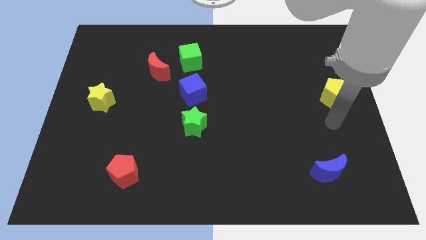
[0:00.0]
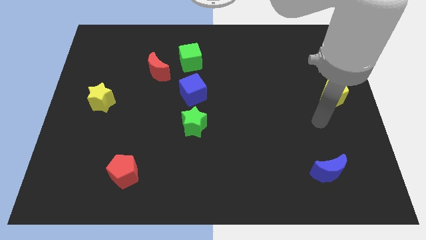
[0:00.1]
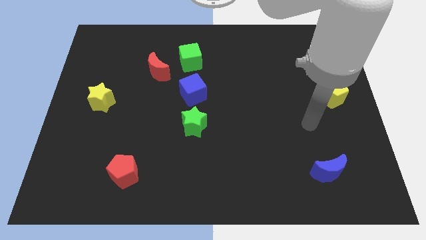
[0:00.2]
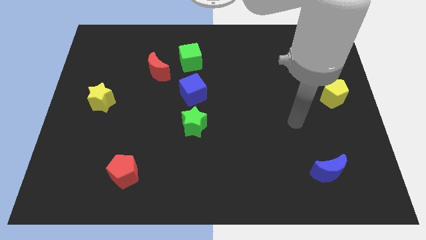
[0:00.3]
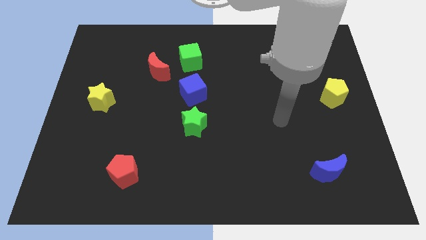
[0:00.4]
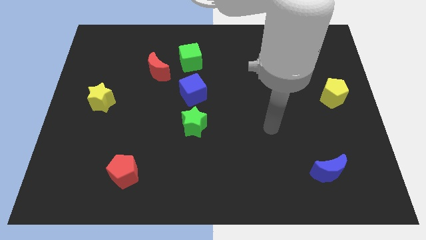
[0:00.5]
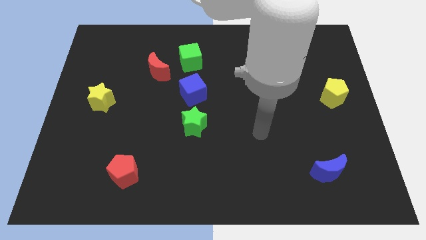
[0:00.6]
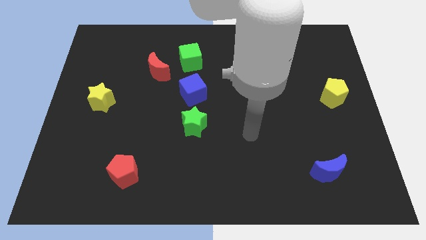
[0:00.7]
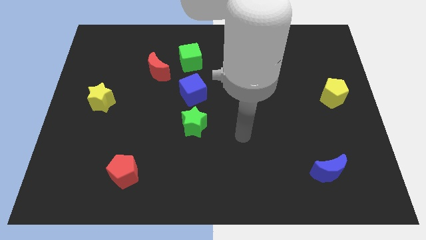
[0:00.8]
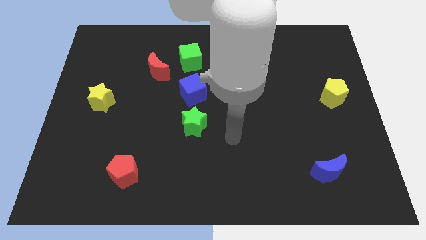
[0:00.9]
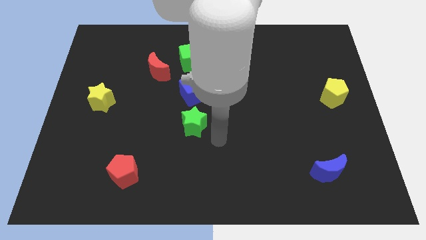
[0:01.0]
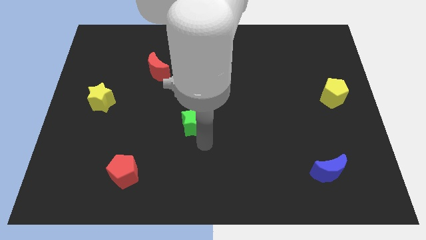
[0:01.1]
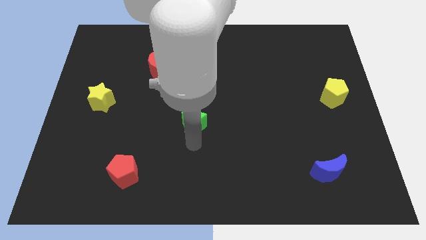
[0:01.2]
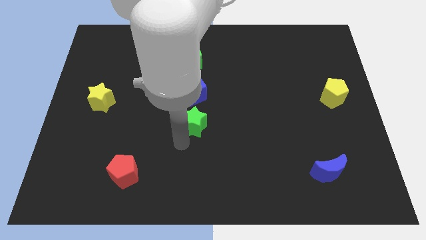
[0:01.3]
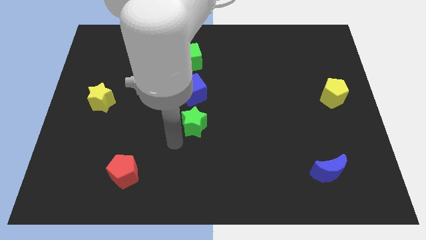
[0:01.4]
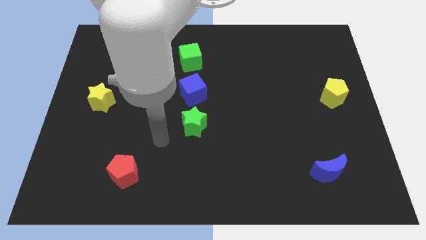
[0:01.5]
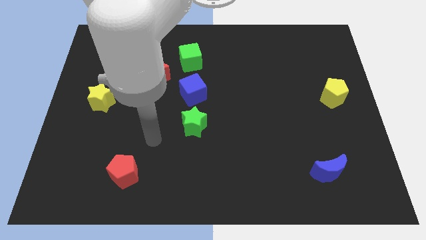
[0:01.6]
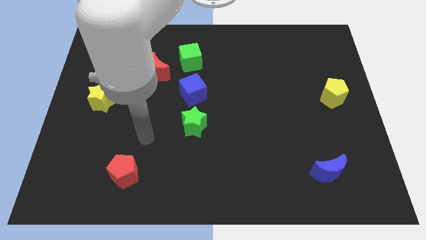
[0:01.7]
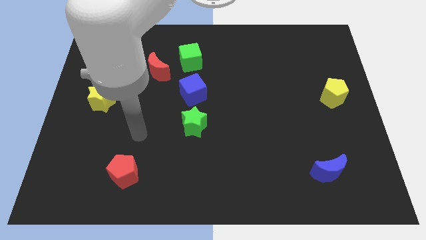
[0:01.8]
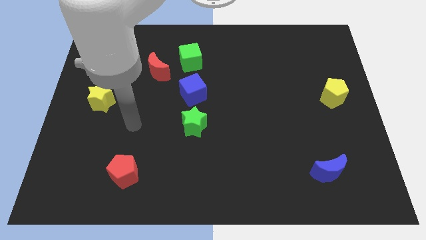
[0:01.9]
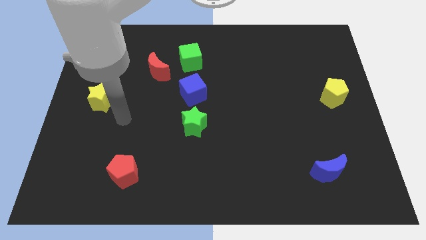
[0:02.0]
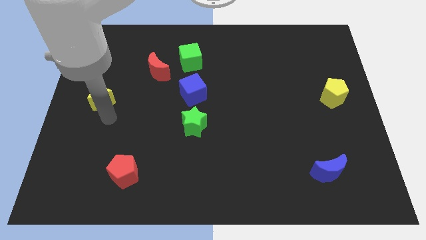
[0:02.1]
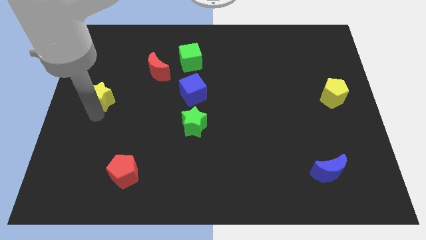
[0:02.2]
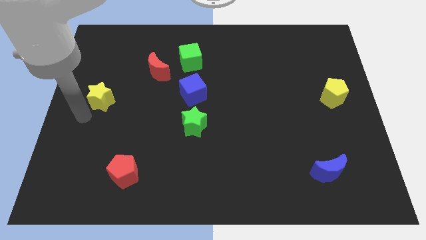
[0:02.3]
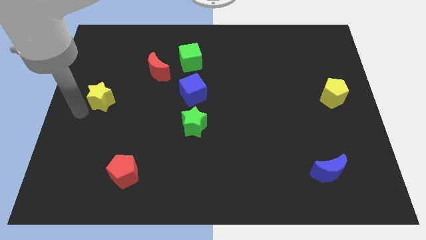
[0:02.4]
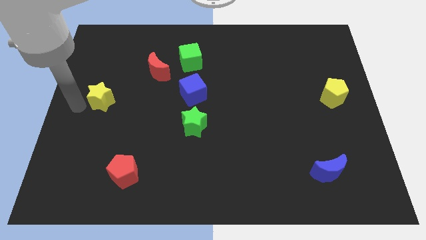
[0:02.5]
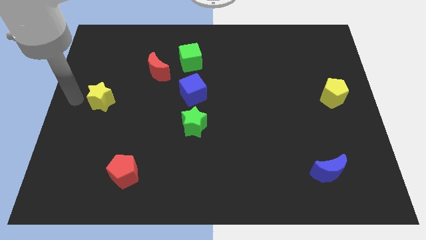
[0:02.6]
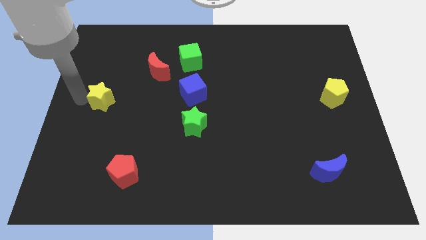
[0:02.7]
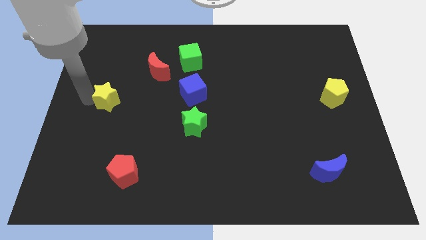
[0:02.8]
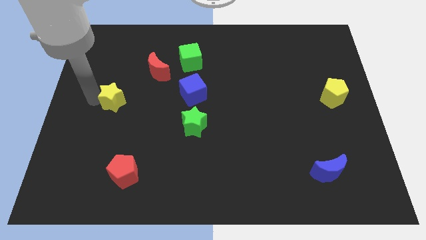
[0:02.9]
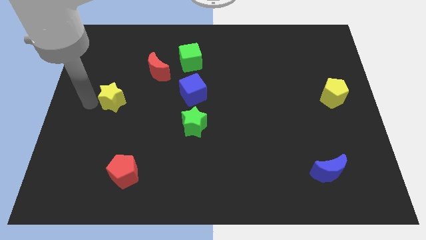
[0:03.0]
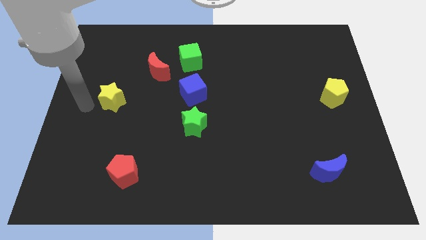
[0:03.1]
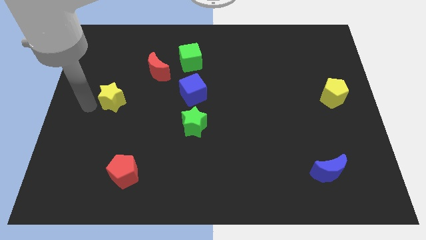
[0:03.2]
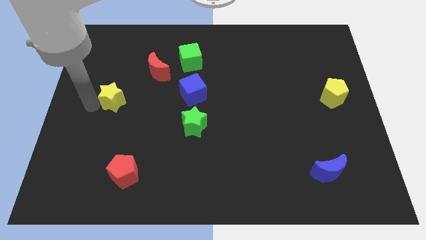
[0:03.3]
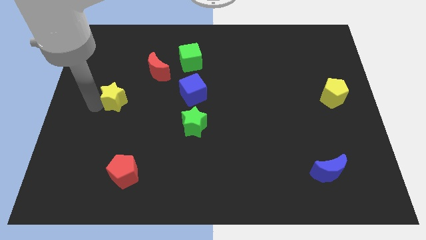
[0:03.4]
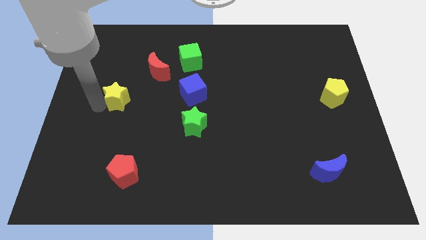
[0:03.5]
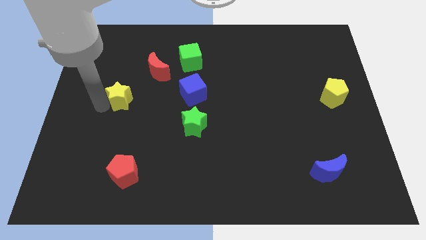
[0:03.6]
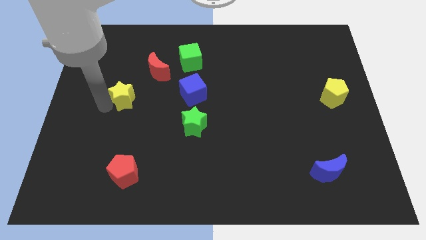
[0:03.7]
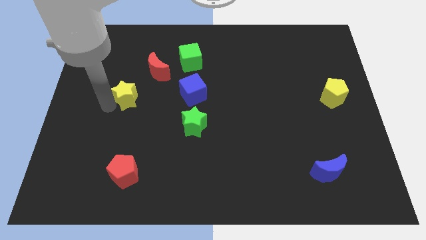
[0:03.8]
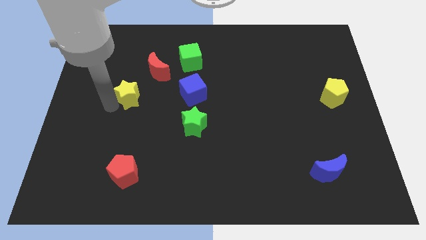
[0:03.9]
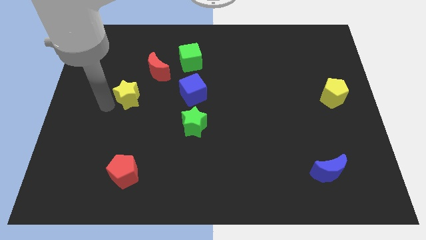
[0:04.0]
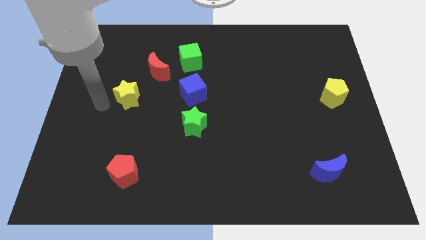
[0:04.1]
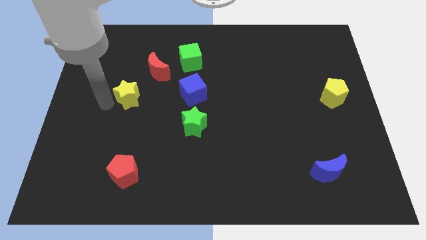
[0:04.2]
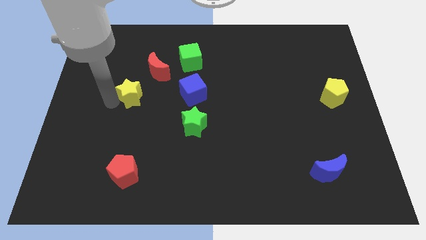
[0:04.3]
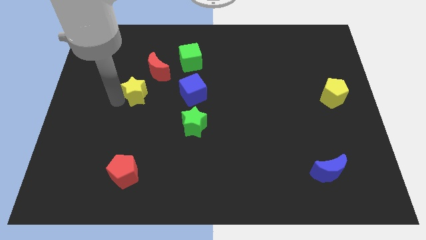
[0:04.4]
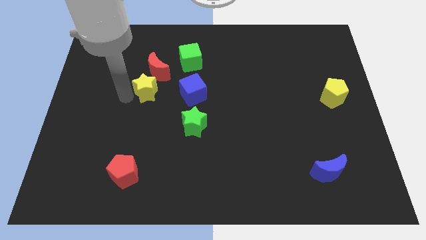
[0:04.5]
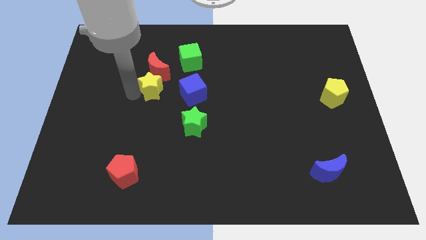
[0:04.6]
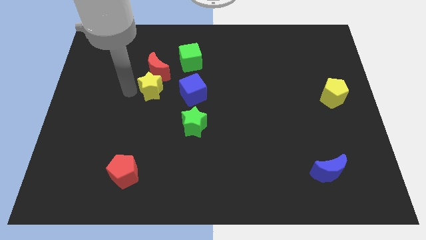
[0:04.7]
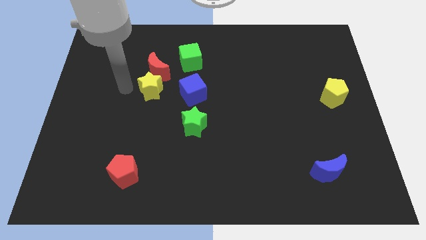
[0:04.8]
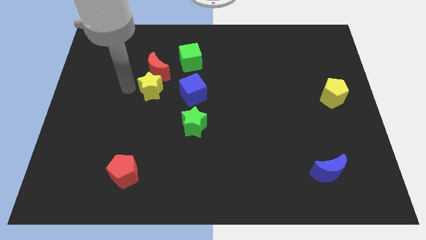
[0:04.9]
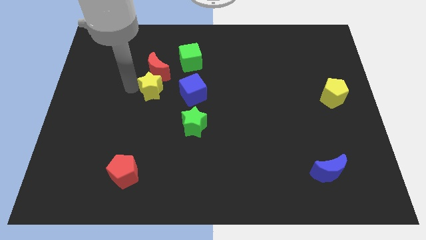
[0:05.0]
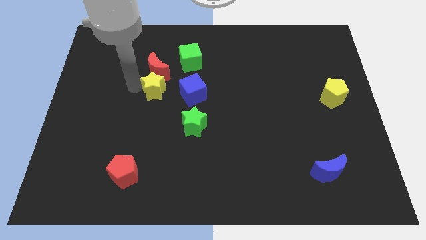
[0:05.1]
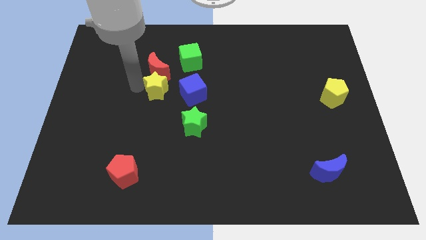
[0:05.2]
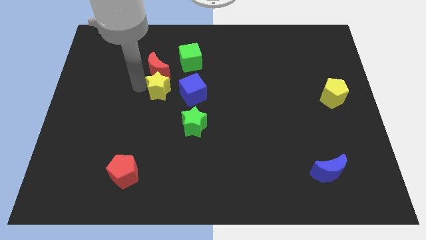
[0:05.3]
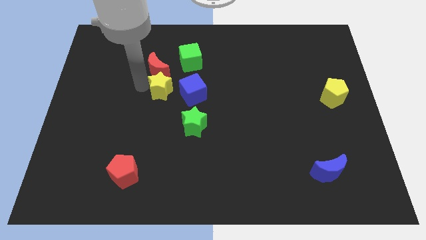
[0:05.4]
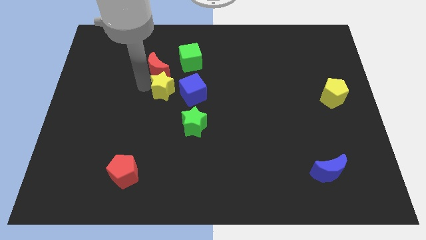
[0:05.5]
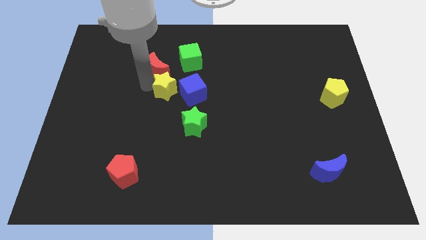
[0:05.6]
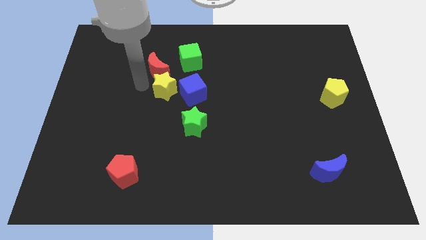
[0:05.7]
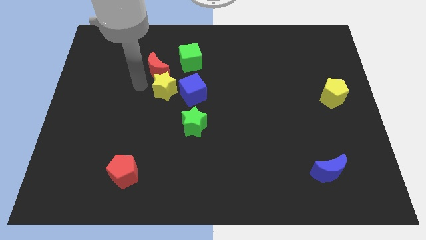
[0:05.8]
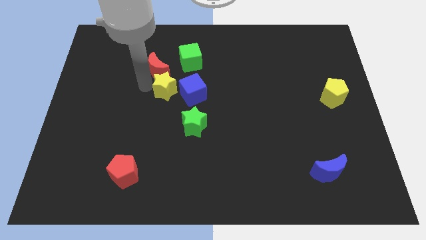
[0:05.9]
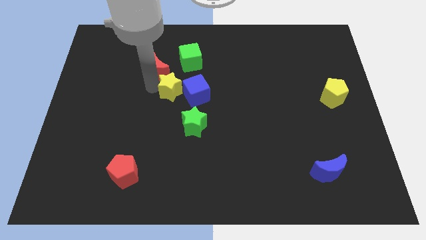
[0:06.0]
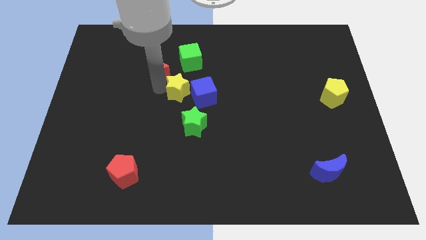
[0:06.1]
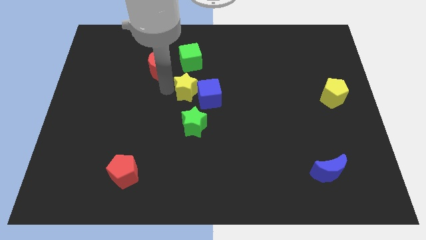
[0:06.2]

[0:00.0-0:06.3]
slide the yellow star next to the blue cube

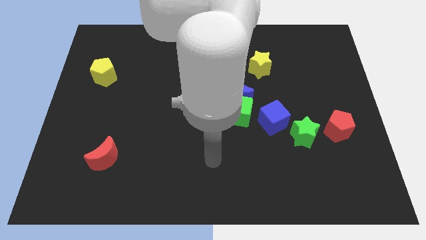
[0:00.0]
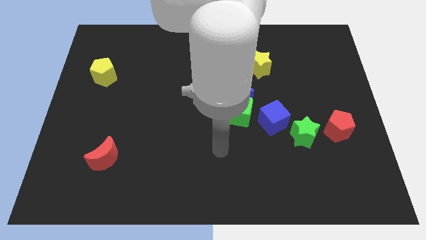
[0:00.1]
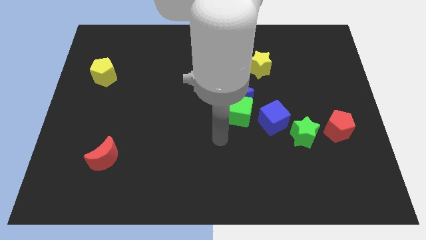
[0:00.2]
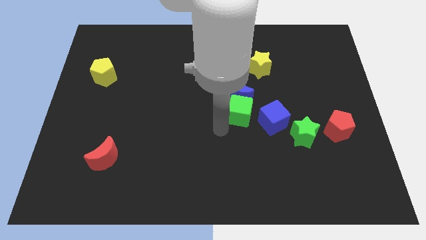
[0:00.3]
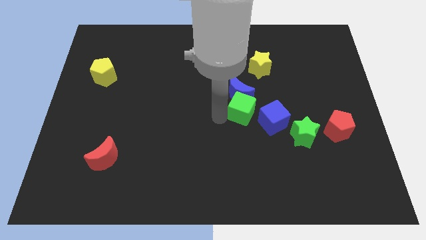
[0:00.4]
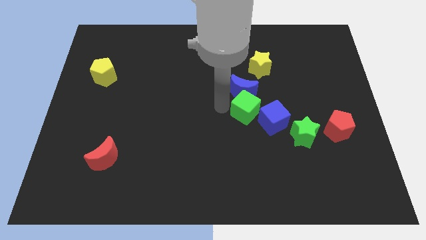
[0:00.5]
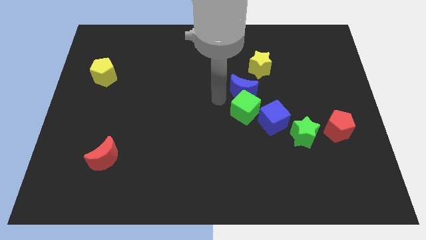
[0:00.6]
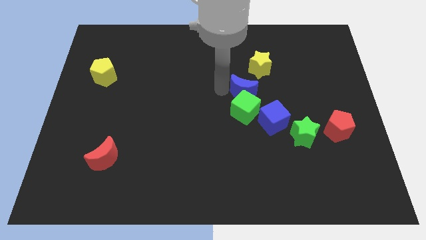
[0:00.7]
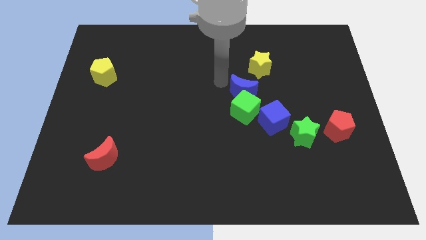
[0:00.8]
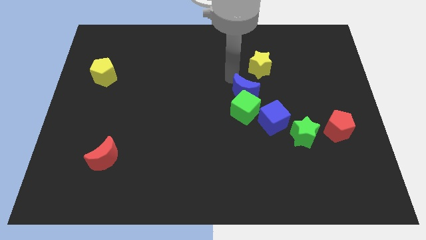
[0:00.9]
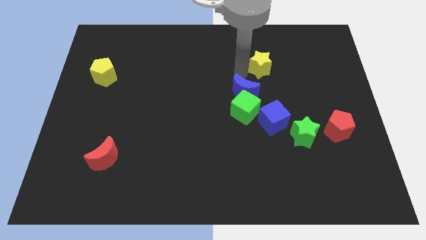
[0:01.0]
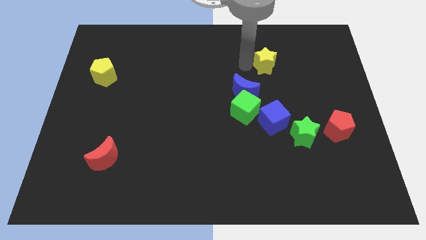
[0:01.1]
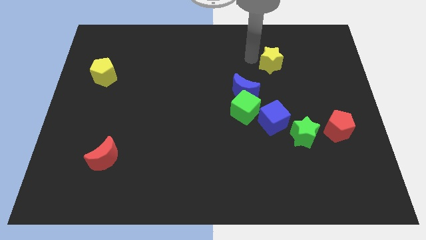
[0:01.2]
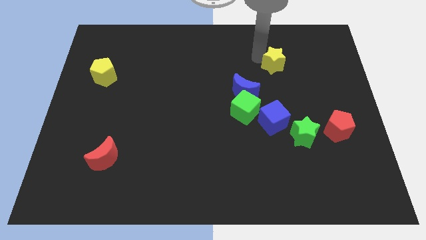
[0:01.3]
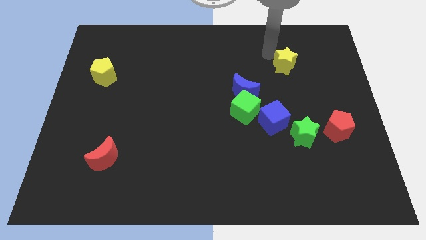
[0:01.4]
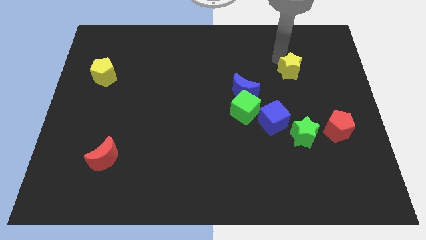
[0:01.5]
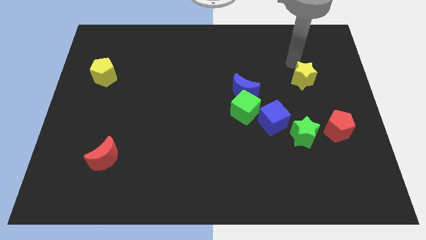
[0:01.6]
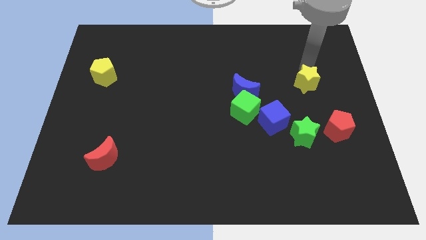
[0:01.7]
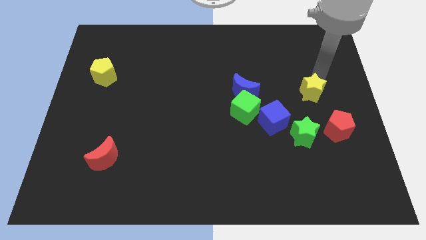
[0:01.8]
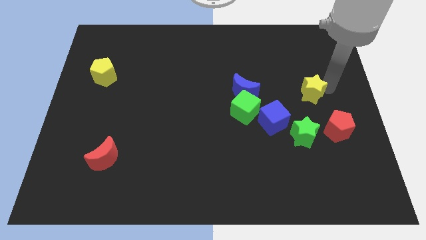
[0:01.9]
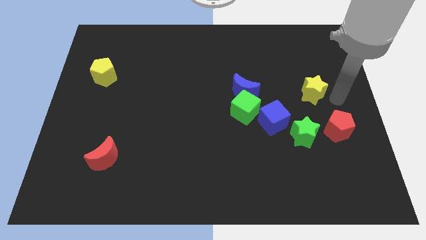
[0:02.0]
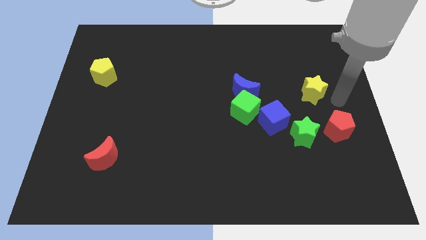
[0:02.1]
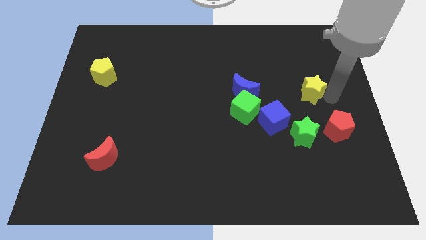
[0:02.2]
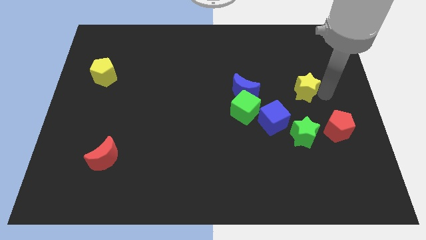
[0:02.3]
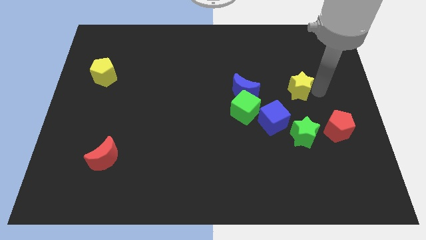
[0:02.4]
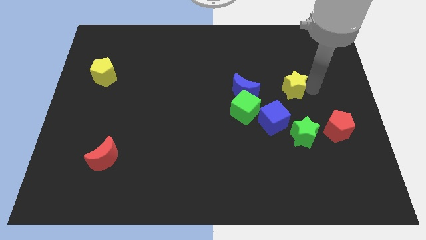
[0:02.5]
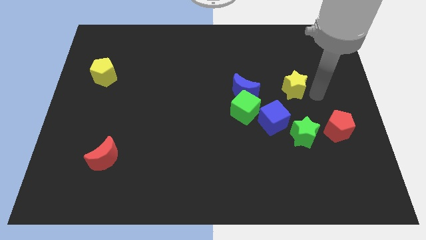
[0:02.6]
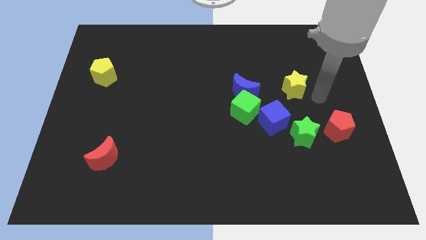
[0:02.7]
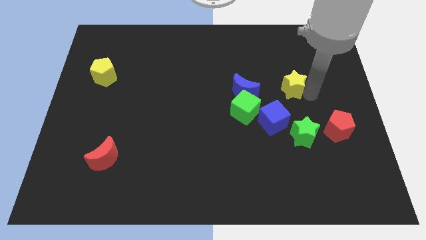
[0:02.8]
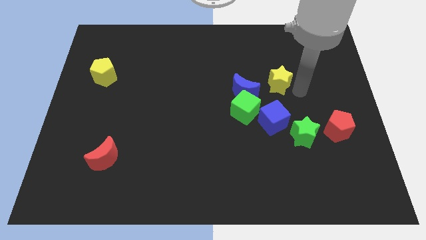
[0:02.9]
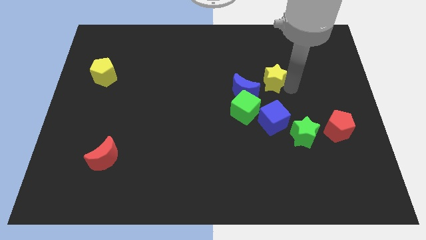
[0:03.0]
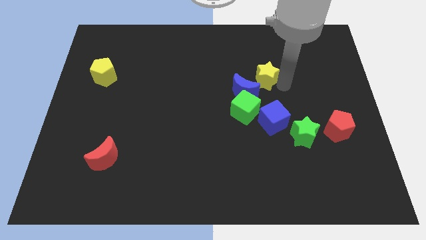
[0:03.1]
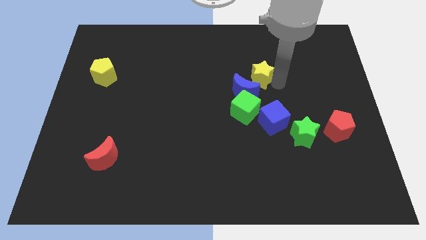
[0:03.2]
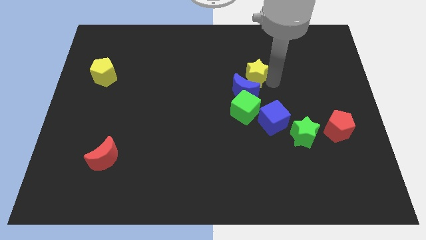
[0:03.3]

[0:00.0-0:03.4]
put the yellow star towards the blue moon
